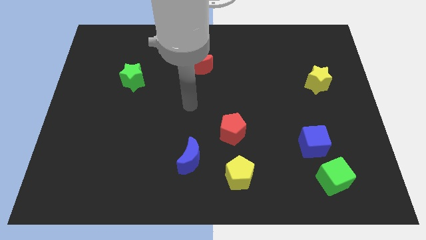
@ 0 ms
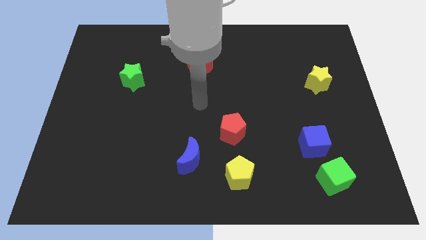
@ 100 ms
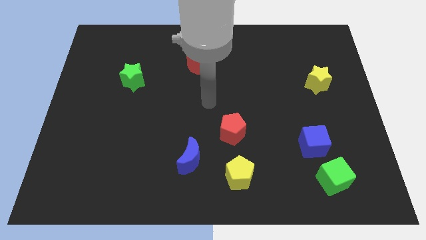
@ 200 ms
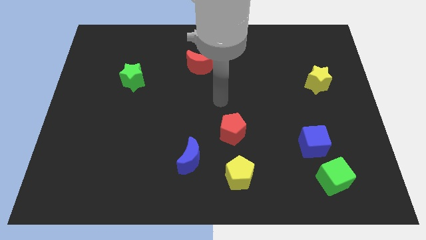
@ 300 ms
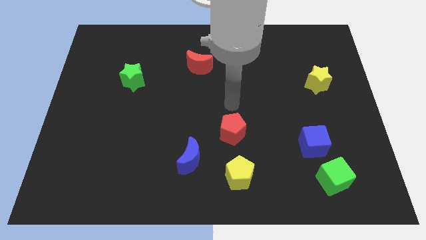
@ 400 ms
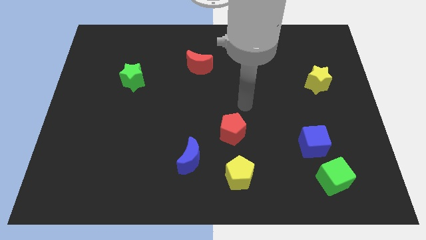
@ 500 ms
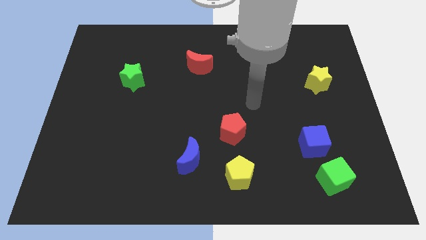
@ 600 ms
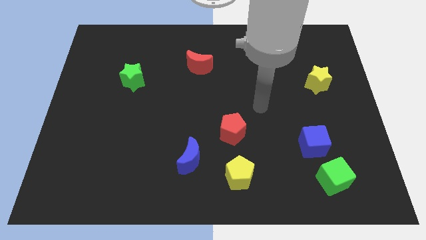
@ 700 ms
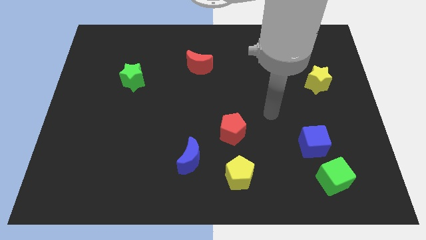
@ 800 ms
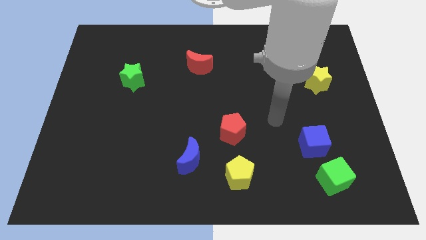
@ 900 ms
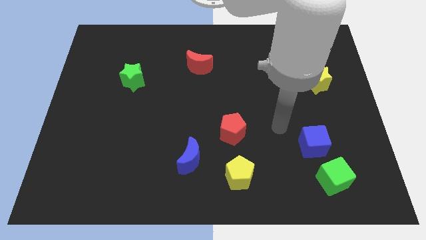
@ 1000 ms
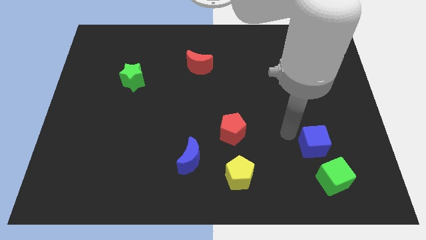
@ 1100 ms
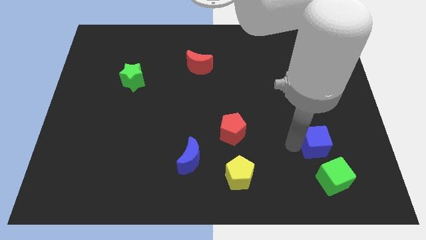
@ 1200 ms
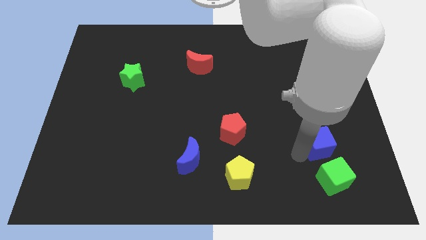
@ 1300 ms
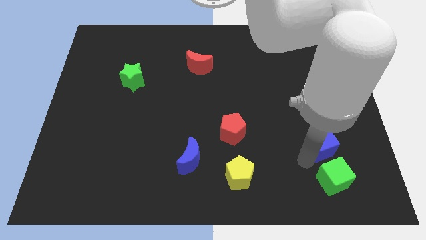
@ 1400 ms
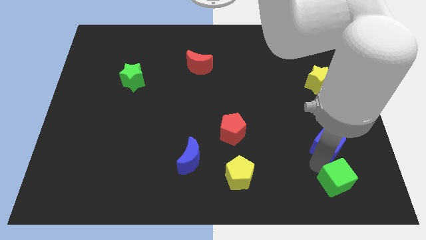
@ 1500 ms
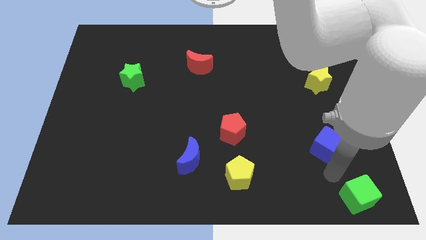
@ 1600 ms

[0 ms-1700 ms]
separate the blue cube from the green cube

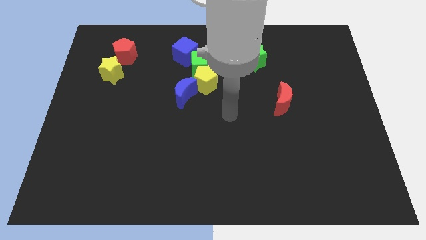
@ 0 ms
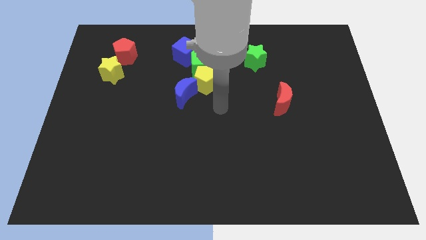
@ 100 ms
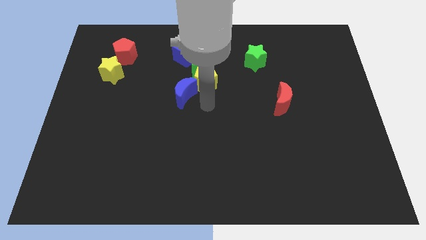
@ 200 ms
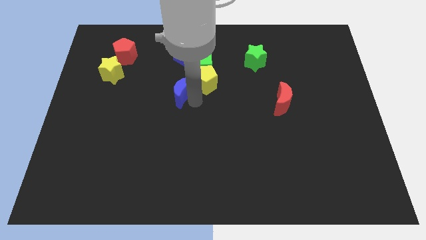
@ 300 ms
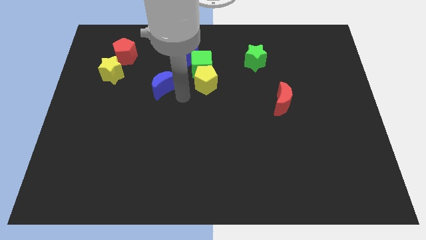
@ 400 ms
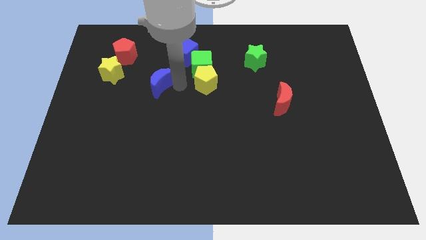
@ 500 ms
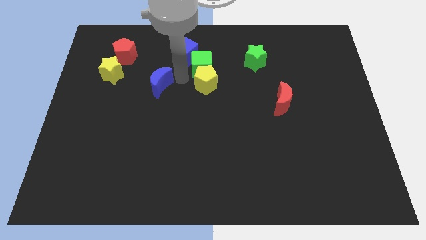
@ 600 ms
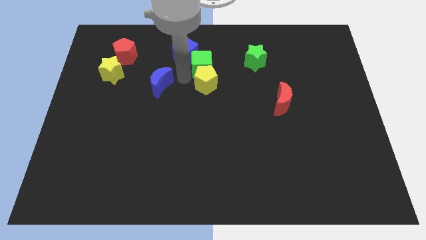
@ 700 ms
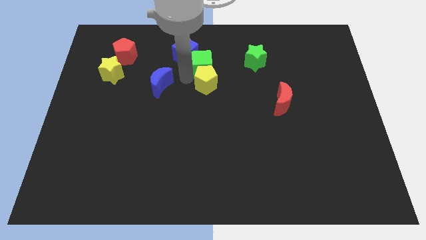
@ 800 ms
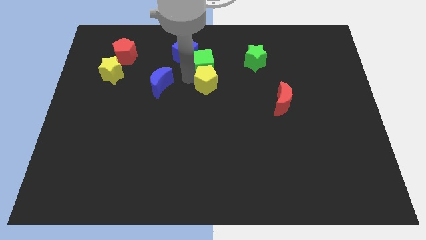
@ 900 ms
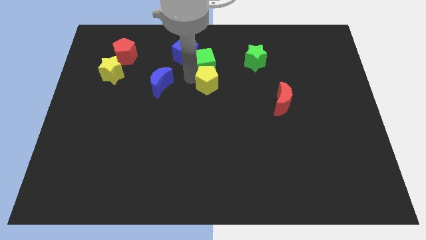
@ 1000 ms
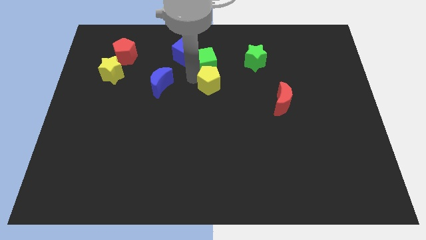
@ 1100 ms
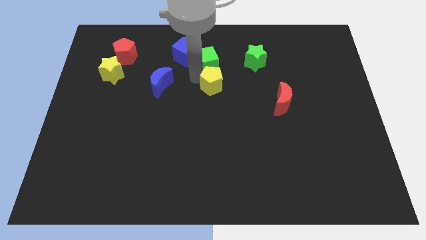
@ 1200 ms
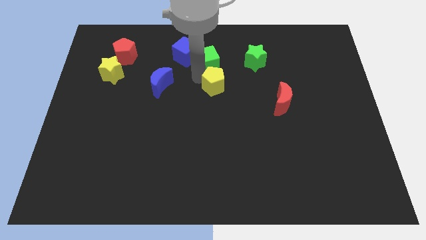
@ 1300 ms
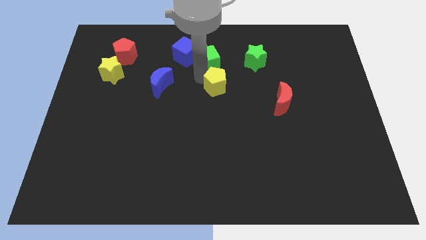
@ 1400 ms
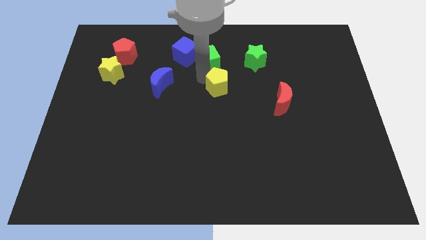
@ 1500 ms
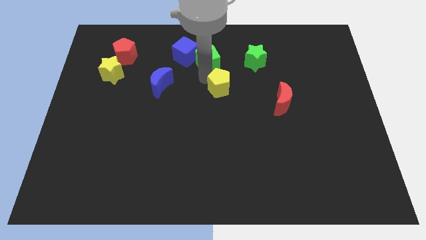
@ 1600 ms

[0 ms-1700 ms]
pull the yellow pentagon apart from the green cube and blue moon

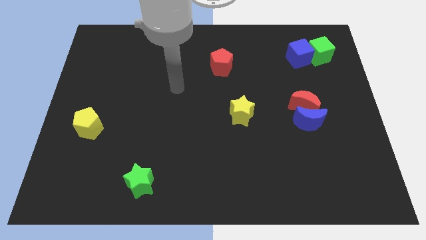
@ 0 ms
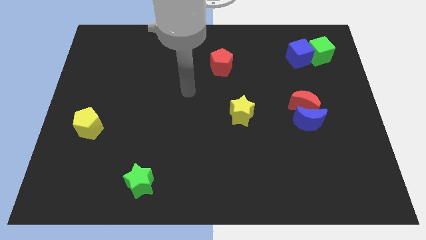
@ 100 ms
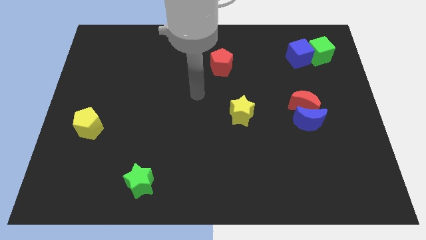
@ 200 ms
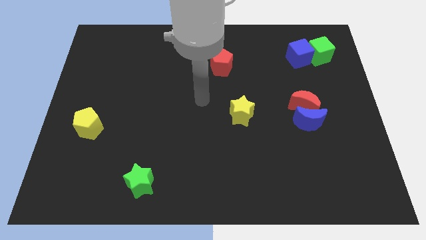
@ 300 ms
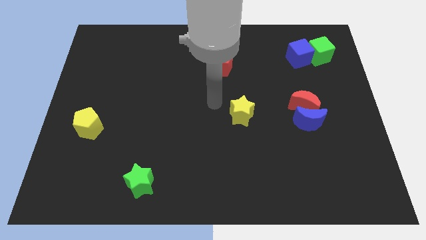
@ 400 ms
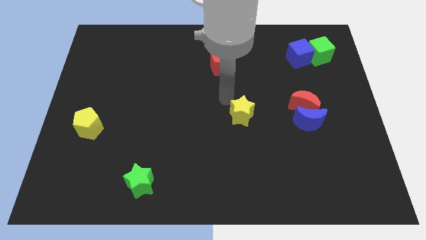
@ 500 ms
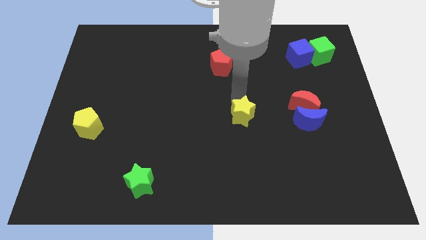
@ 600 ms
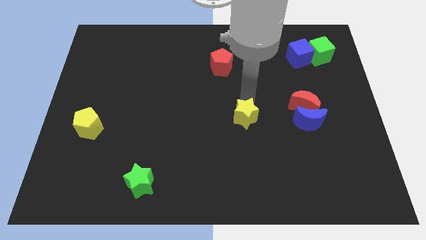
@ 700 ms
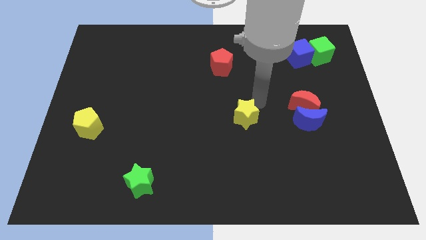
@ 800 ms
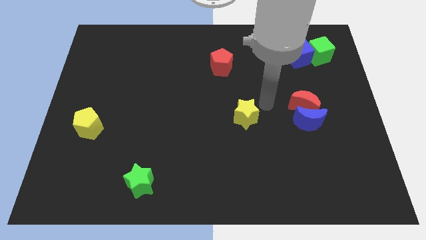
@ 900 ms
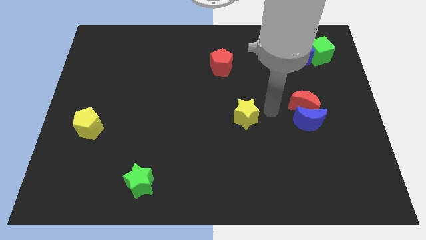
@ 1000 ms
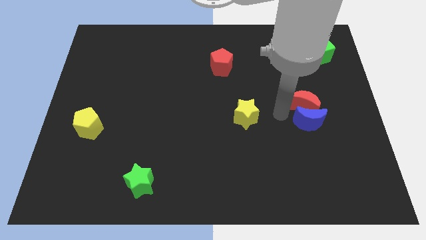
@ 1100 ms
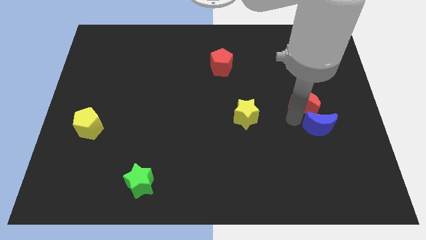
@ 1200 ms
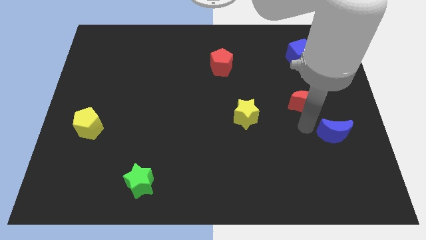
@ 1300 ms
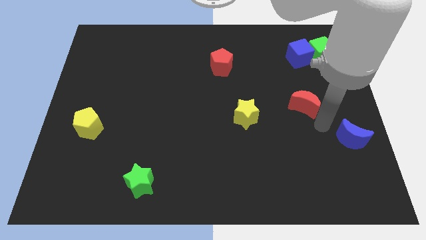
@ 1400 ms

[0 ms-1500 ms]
pull the red moon apart from the blue moon

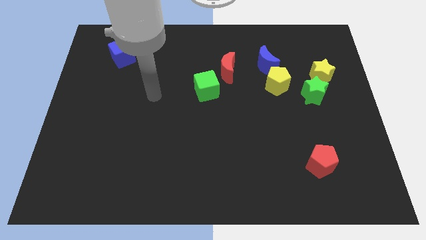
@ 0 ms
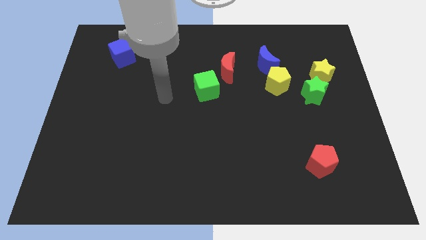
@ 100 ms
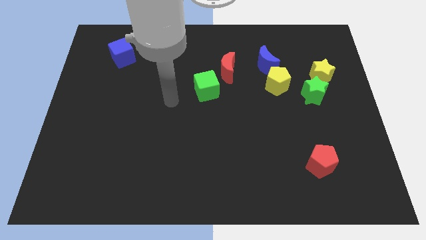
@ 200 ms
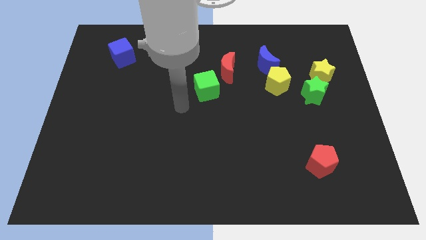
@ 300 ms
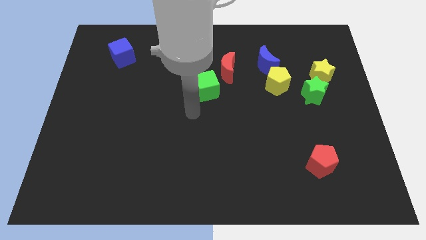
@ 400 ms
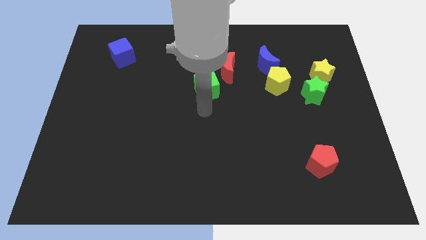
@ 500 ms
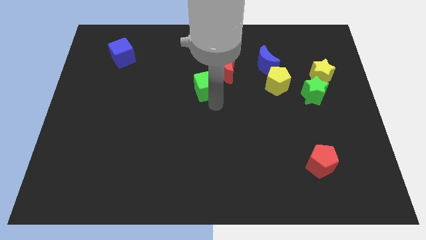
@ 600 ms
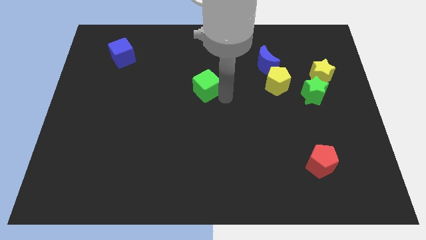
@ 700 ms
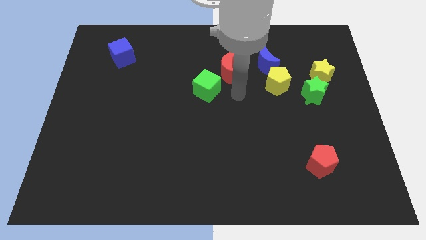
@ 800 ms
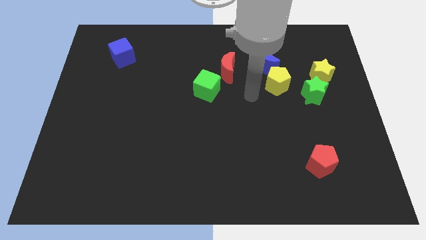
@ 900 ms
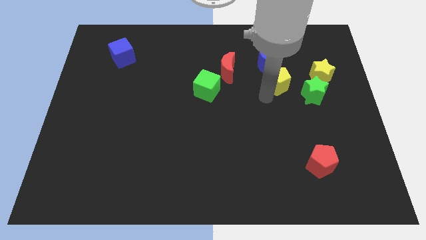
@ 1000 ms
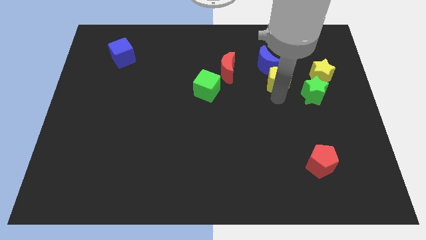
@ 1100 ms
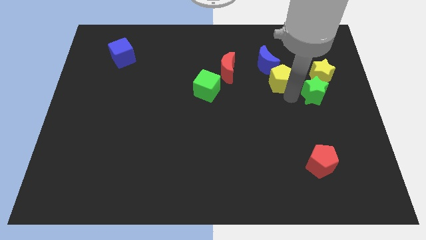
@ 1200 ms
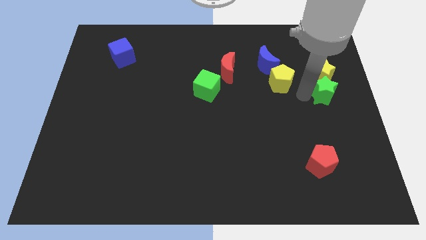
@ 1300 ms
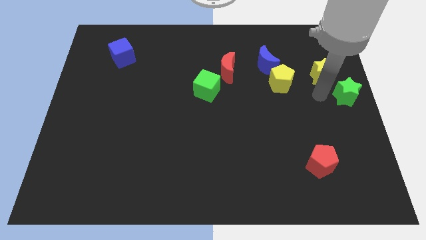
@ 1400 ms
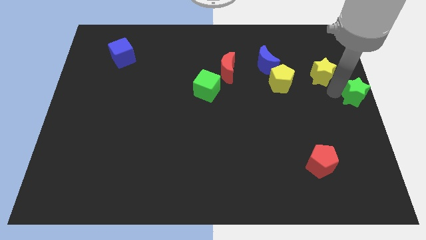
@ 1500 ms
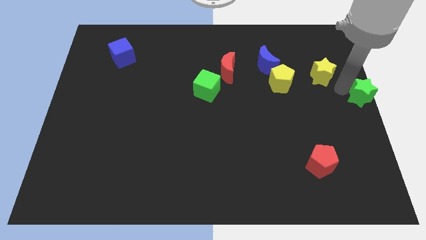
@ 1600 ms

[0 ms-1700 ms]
move the yellow star away from the green star

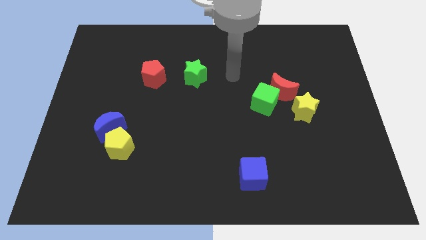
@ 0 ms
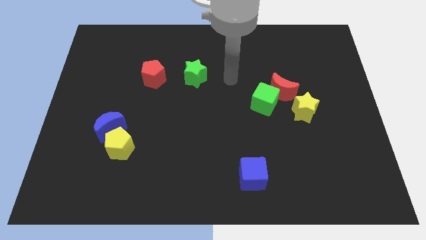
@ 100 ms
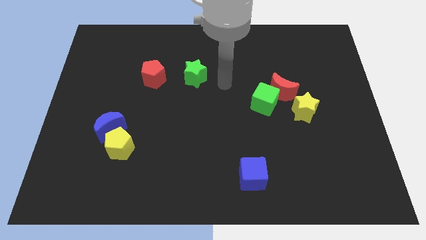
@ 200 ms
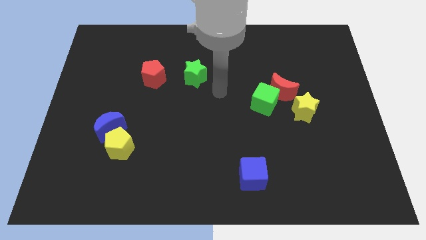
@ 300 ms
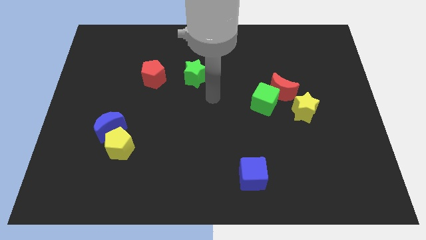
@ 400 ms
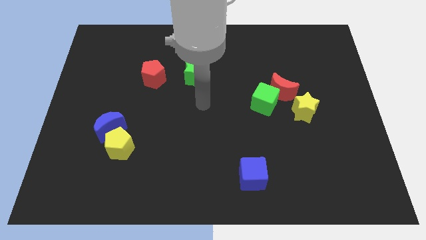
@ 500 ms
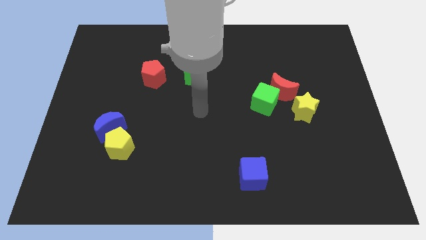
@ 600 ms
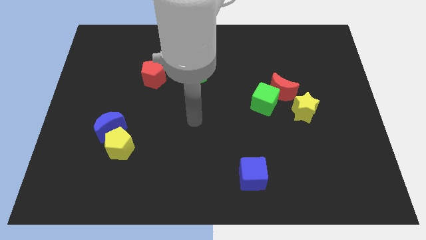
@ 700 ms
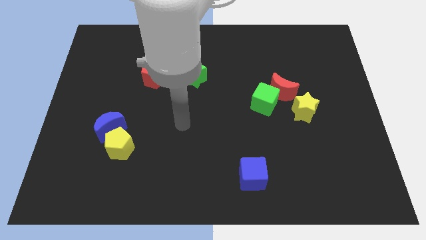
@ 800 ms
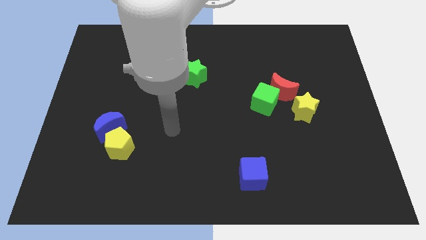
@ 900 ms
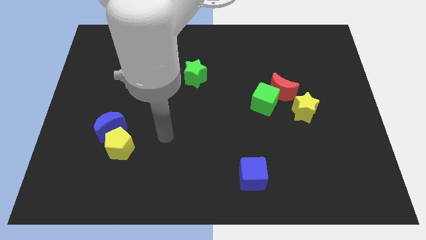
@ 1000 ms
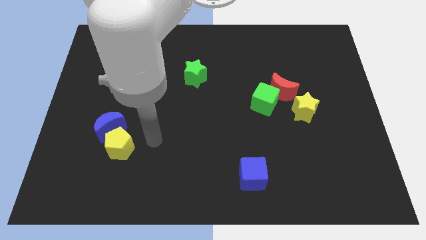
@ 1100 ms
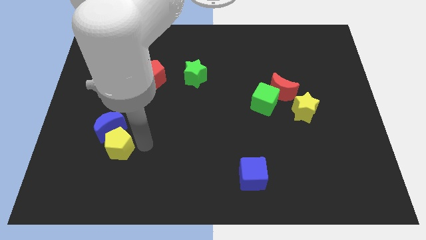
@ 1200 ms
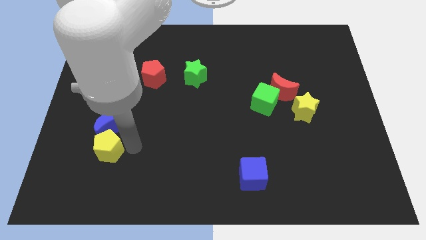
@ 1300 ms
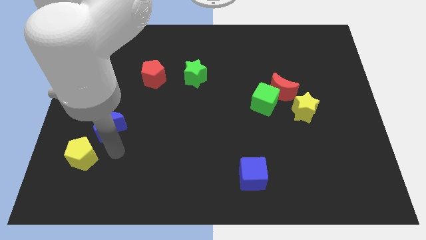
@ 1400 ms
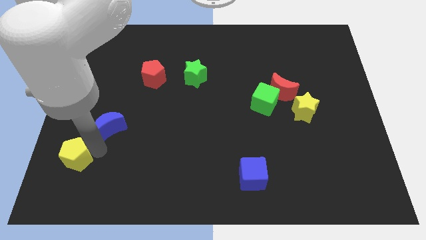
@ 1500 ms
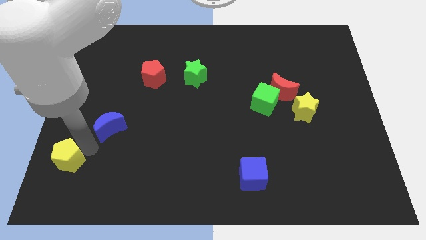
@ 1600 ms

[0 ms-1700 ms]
move the blue moon away from the yellow pentagon

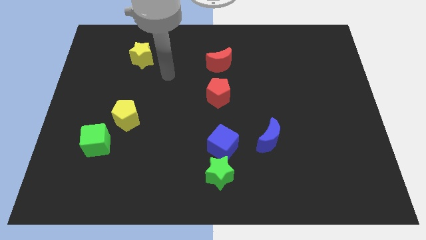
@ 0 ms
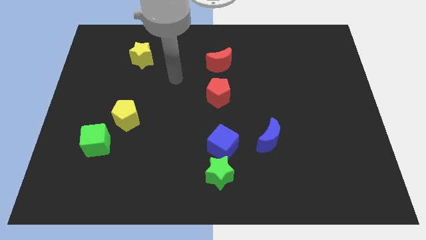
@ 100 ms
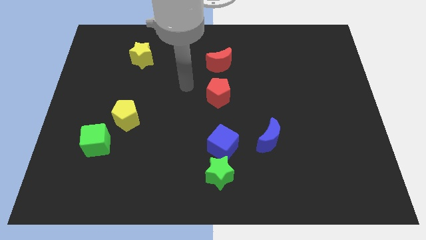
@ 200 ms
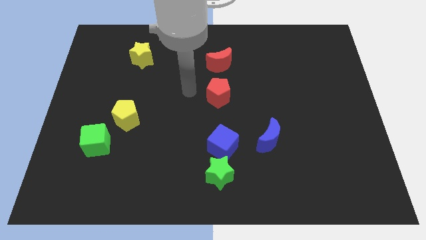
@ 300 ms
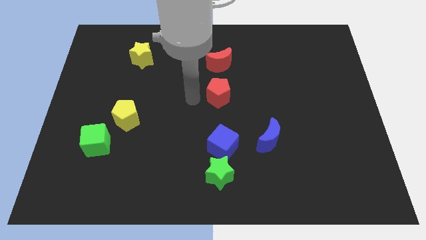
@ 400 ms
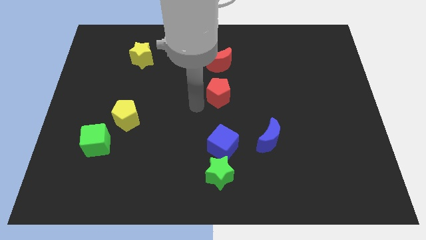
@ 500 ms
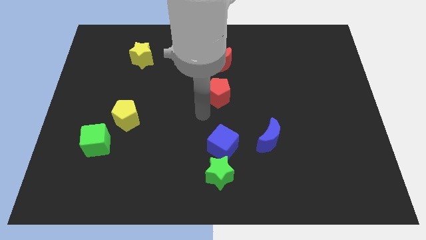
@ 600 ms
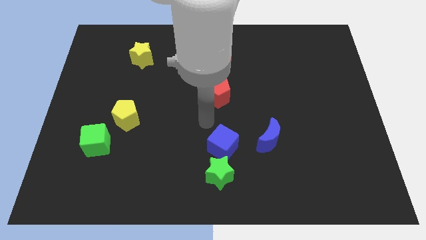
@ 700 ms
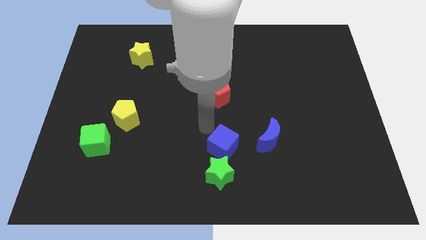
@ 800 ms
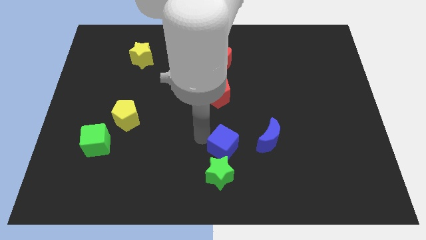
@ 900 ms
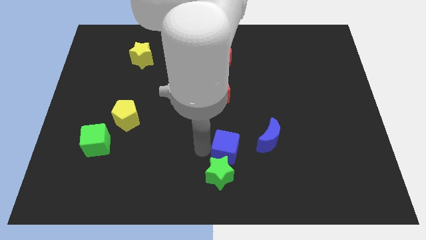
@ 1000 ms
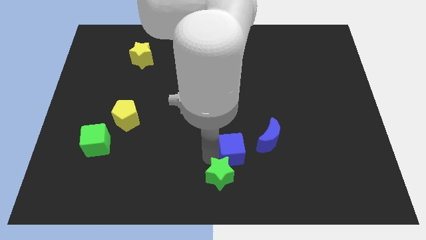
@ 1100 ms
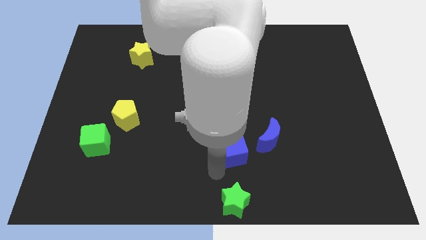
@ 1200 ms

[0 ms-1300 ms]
pull the blue cube apart from the green star
